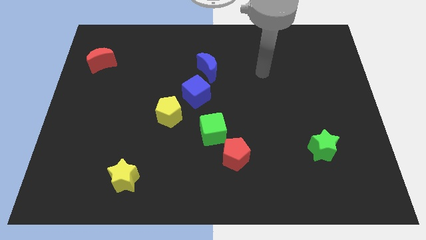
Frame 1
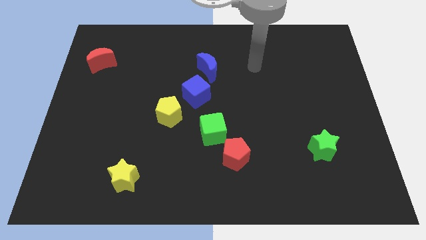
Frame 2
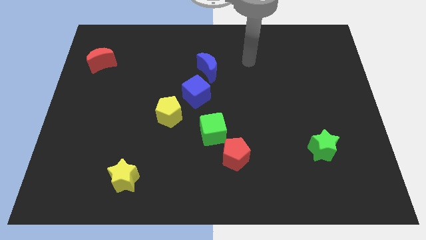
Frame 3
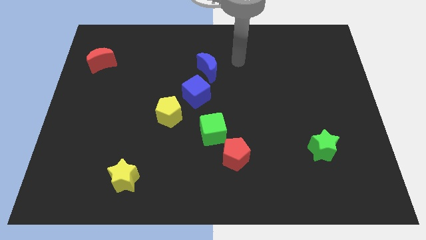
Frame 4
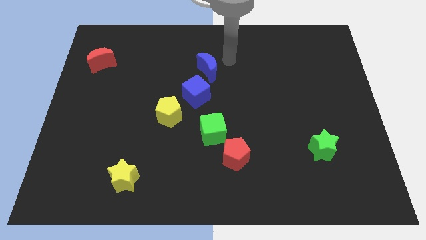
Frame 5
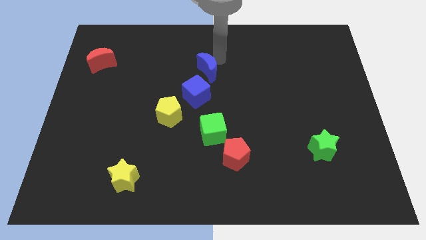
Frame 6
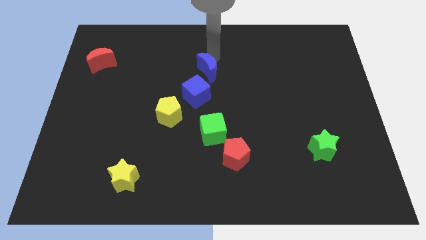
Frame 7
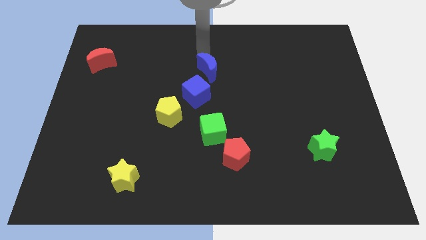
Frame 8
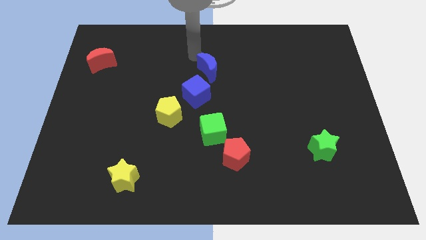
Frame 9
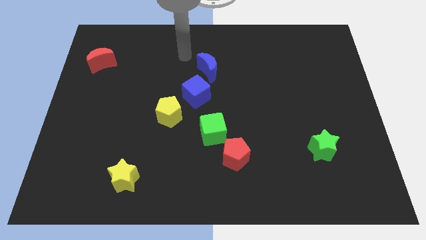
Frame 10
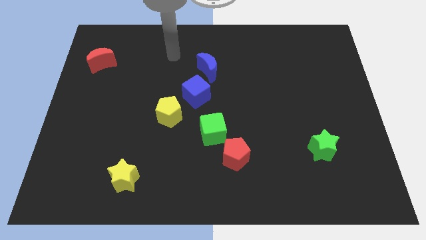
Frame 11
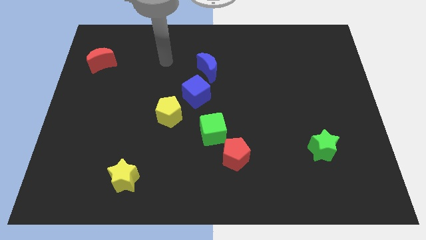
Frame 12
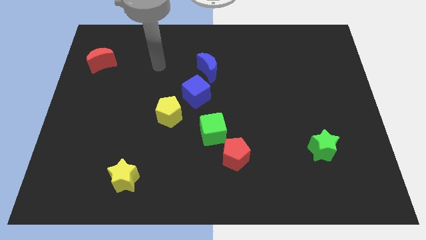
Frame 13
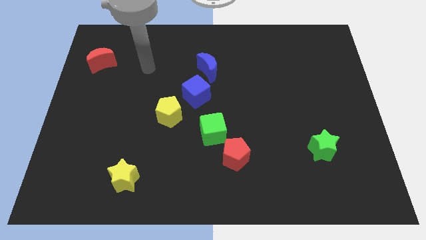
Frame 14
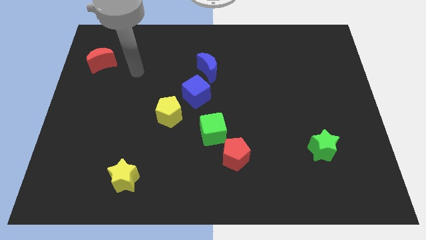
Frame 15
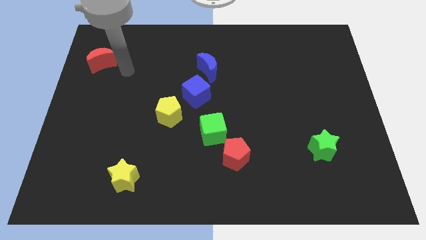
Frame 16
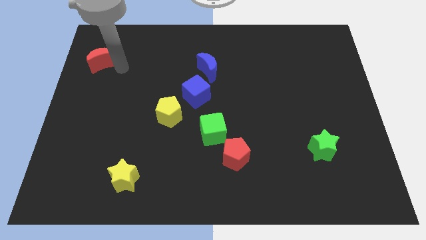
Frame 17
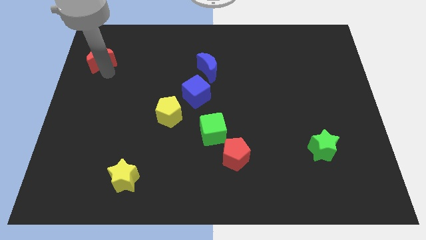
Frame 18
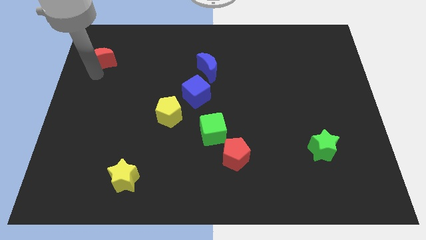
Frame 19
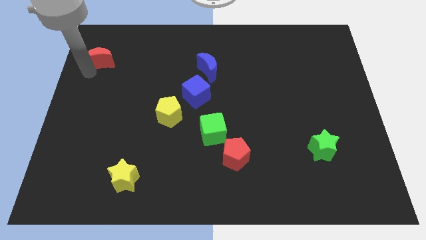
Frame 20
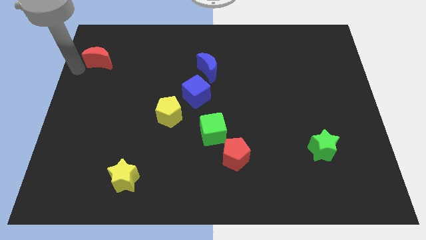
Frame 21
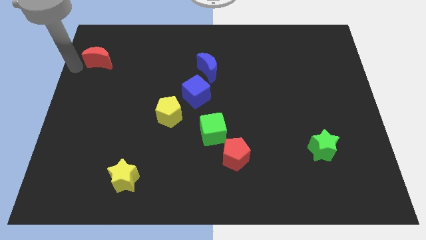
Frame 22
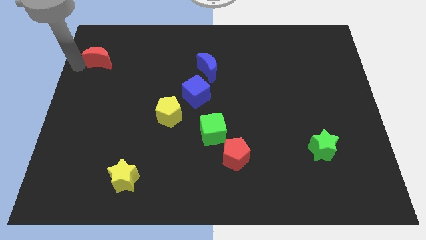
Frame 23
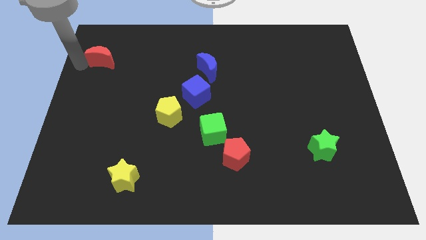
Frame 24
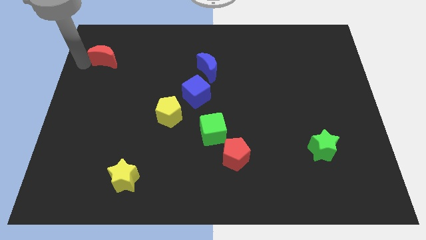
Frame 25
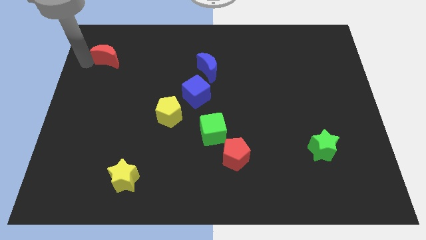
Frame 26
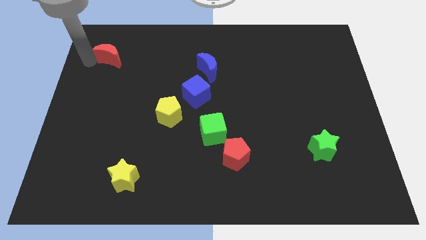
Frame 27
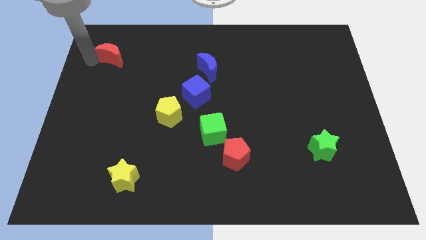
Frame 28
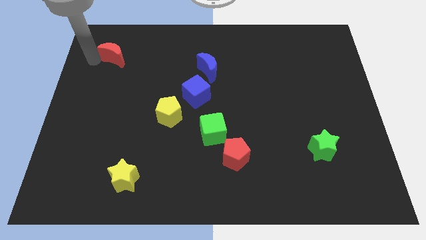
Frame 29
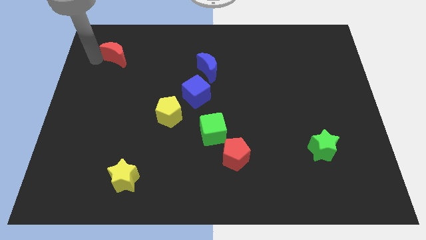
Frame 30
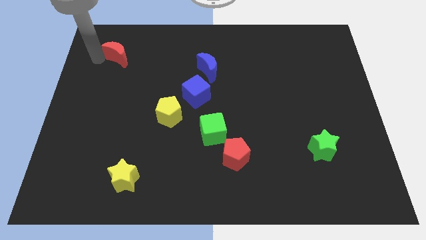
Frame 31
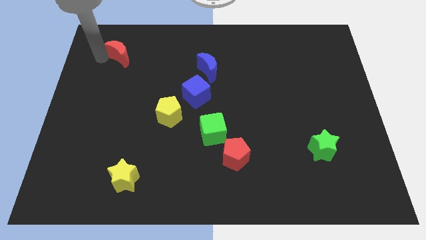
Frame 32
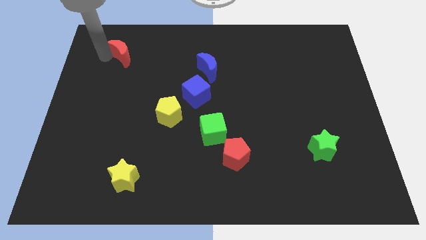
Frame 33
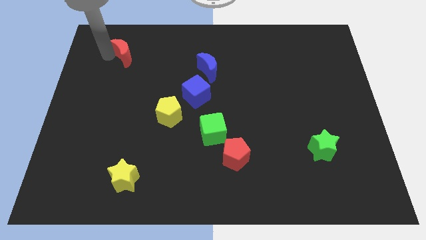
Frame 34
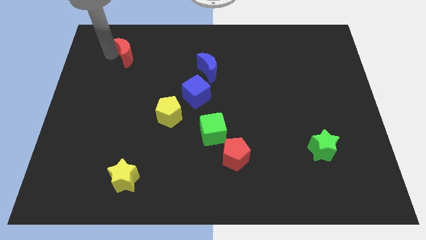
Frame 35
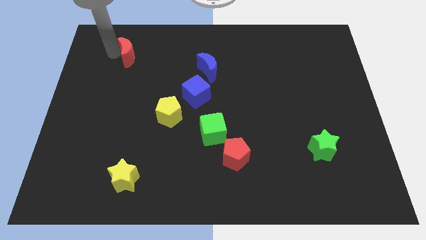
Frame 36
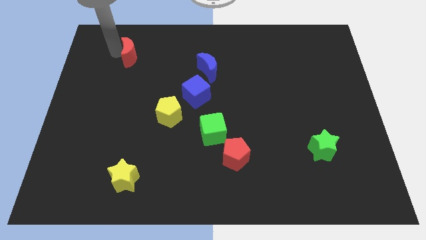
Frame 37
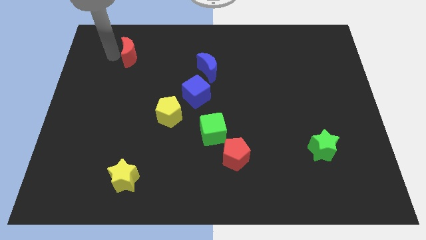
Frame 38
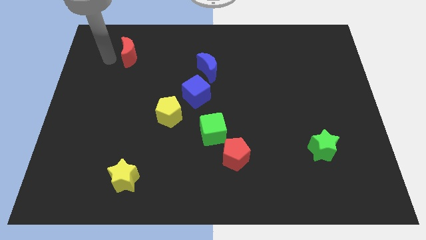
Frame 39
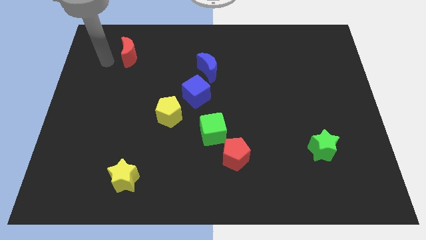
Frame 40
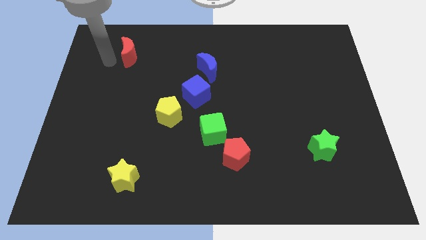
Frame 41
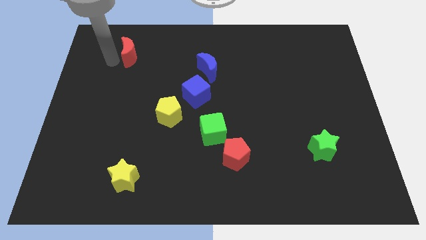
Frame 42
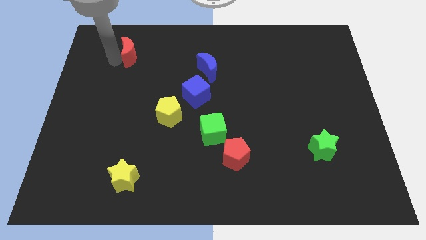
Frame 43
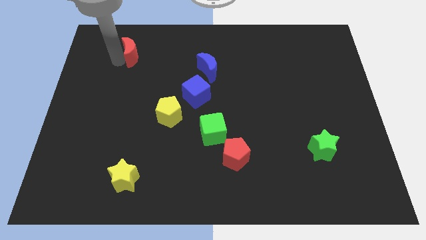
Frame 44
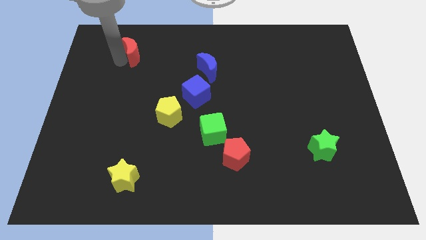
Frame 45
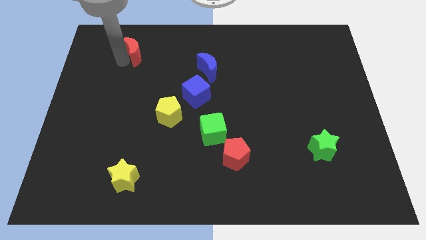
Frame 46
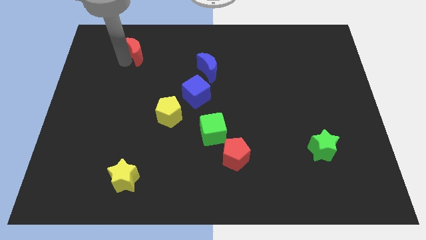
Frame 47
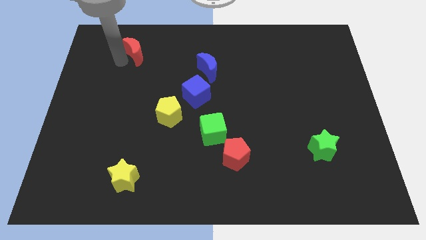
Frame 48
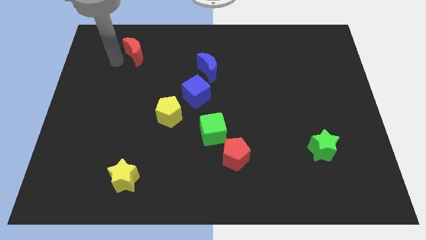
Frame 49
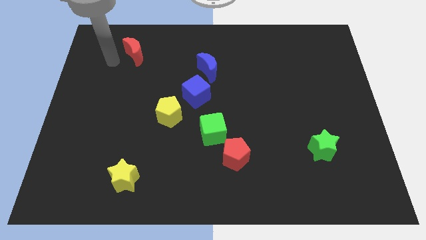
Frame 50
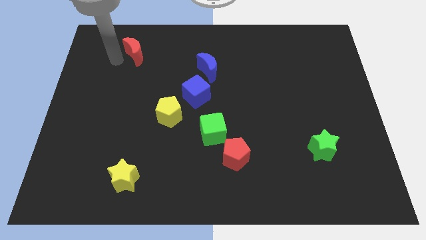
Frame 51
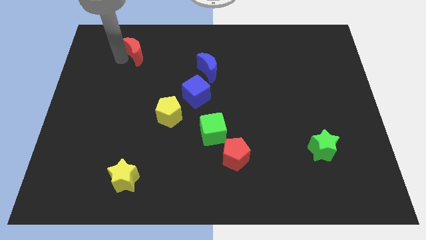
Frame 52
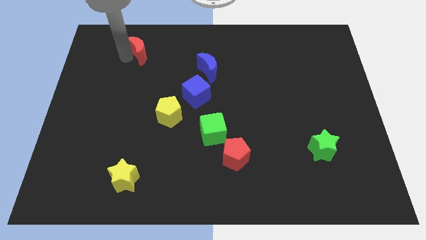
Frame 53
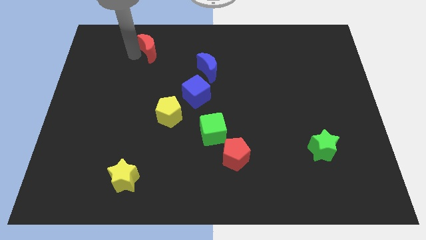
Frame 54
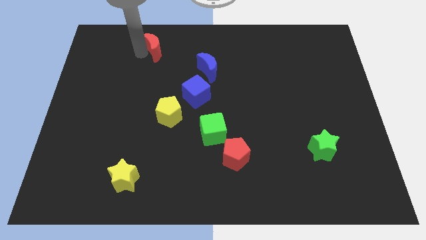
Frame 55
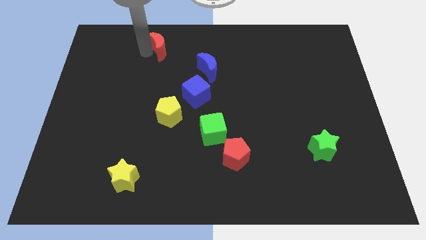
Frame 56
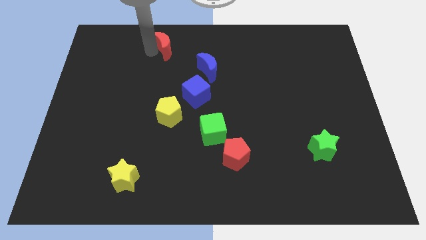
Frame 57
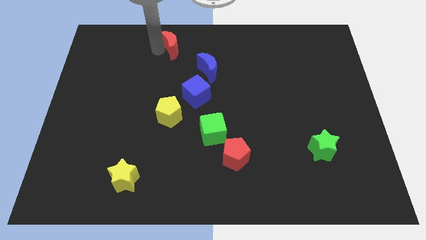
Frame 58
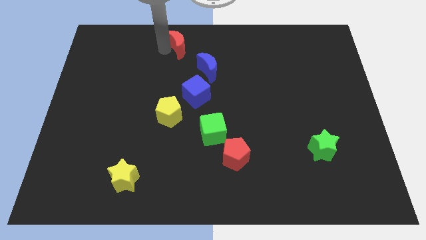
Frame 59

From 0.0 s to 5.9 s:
slide the red moon to the top

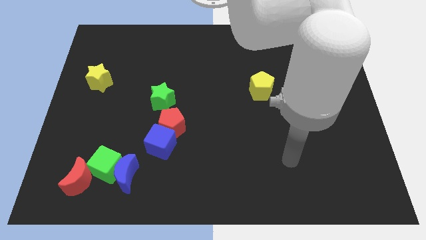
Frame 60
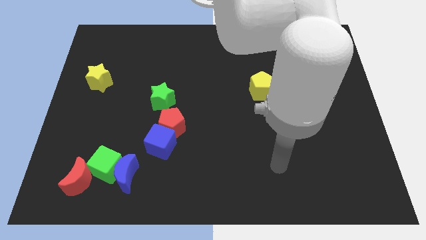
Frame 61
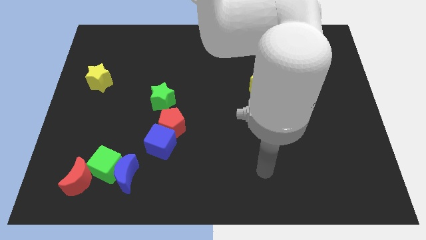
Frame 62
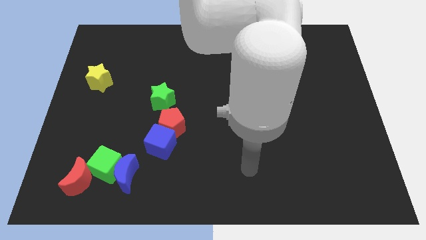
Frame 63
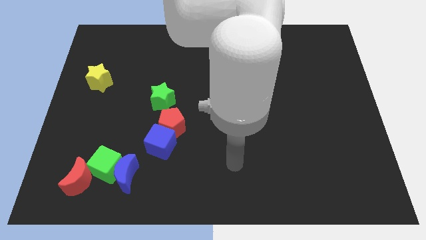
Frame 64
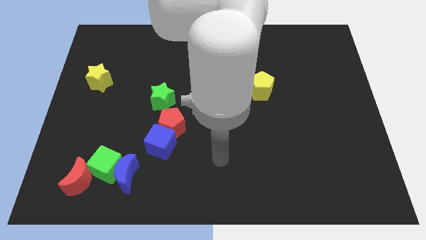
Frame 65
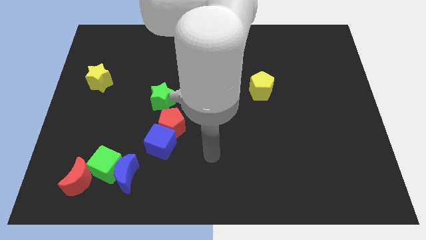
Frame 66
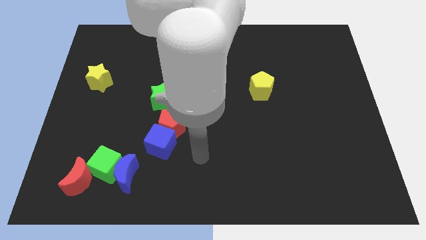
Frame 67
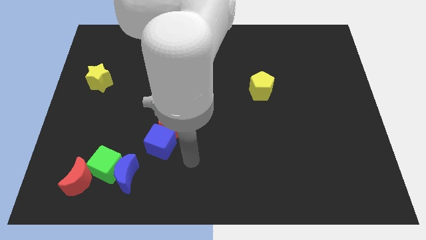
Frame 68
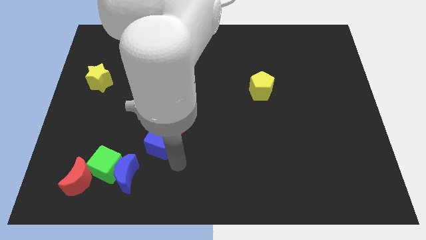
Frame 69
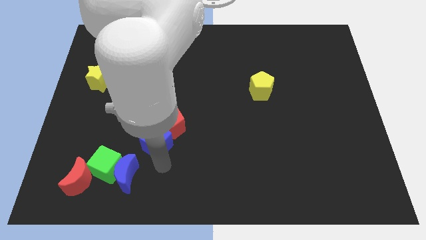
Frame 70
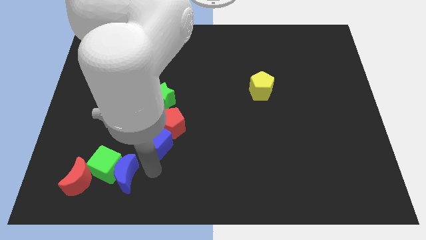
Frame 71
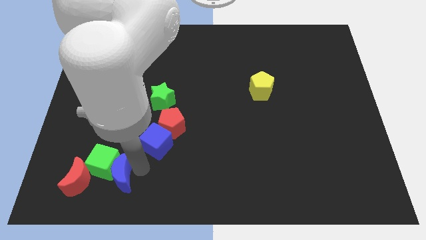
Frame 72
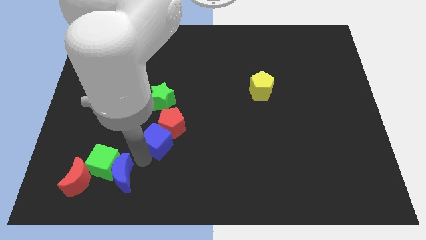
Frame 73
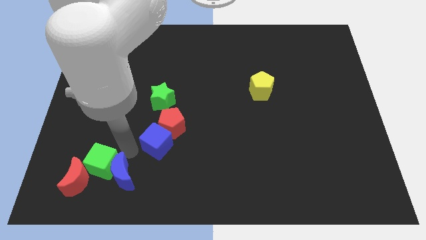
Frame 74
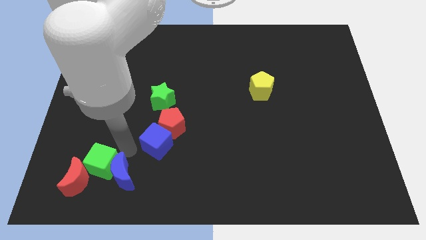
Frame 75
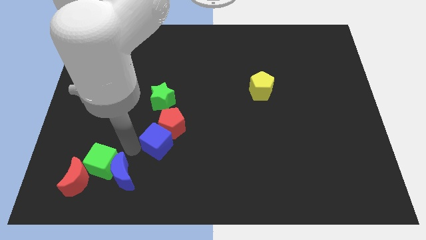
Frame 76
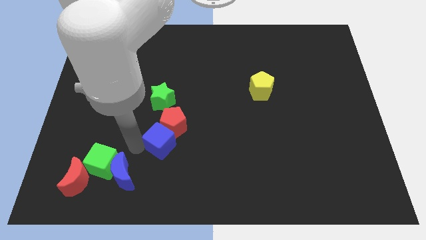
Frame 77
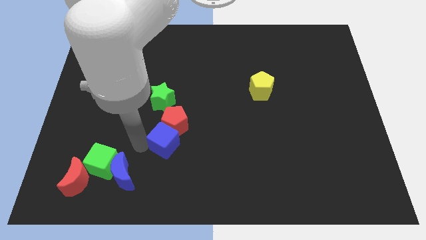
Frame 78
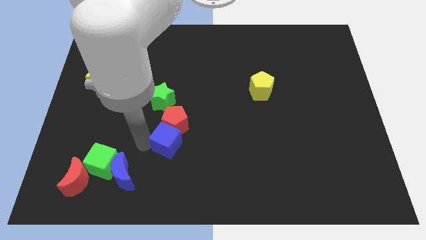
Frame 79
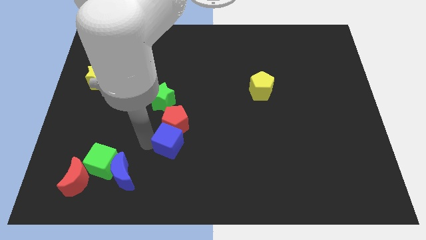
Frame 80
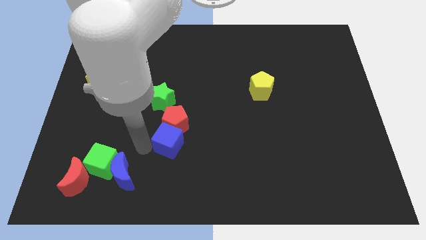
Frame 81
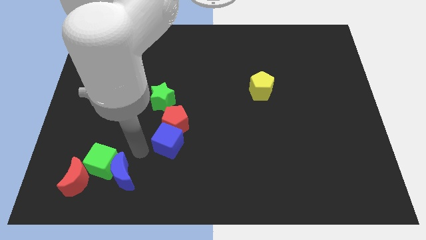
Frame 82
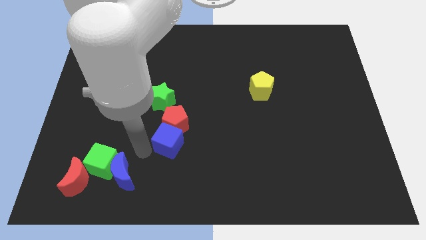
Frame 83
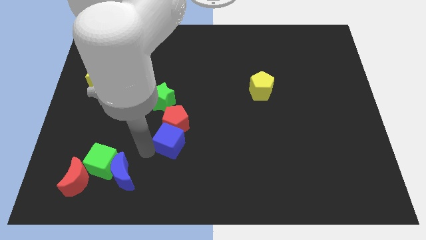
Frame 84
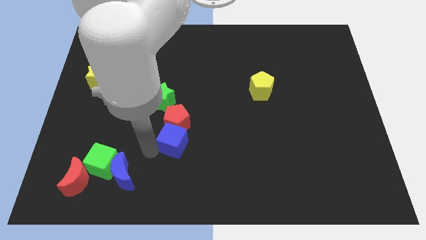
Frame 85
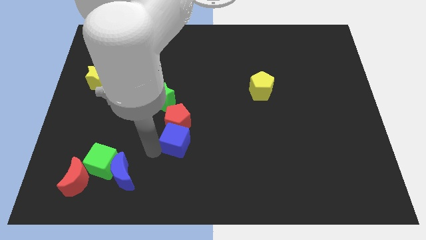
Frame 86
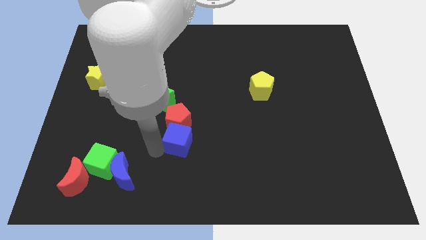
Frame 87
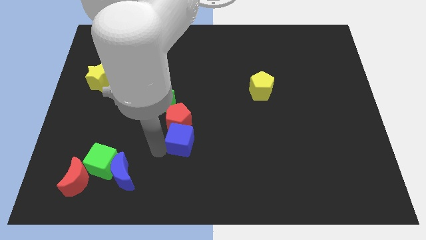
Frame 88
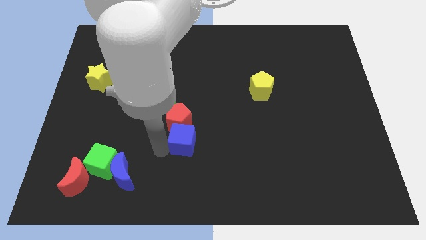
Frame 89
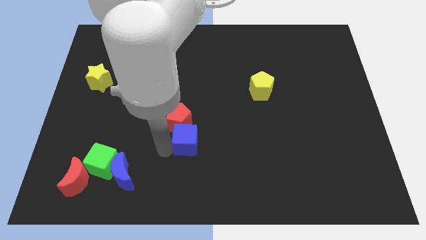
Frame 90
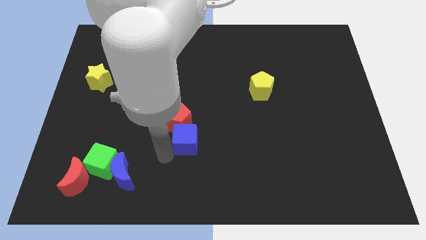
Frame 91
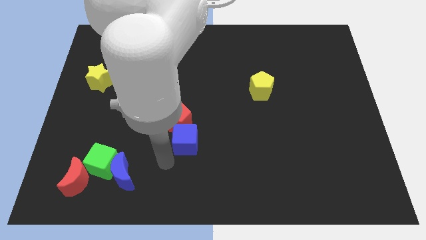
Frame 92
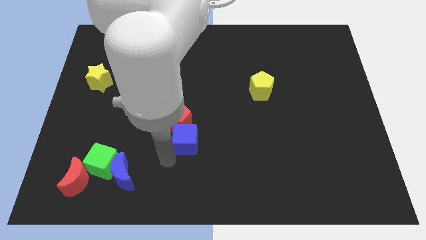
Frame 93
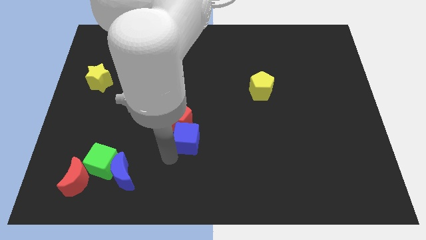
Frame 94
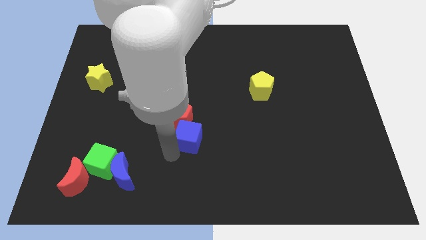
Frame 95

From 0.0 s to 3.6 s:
put the blue cube to the center of the board
